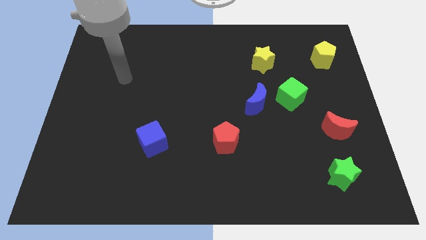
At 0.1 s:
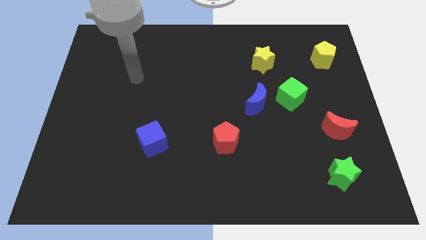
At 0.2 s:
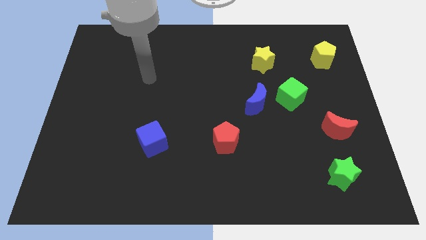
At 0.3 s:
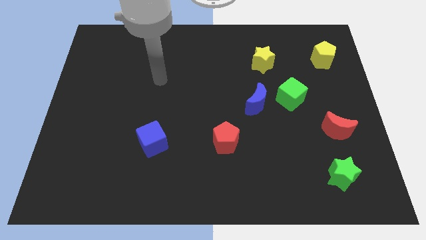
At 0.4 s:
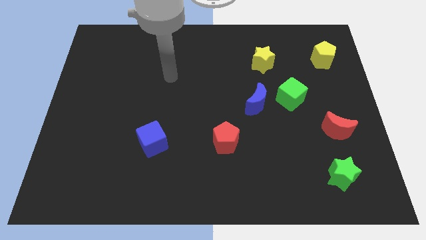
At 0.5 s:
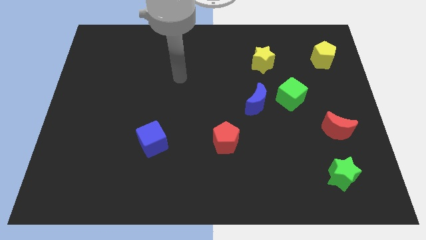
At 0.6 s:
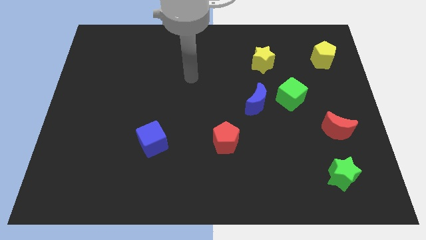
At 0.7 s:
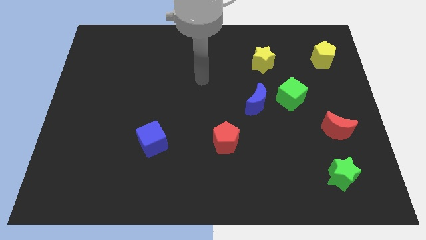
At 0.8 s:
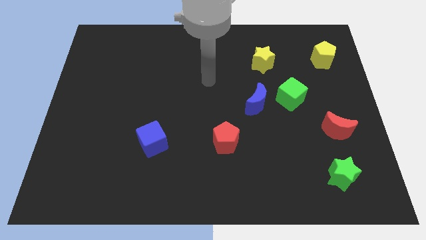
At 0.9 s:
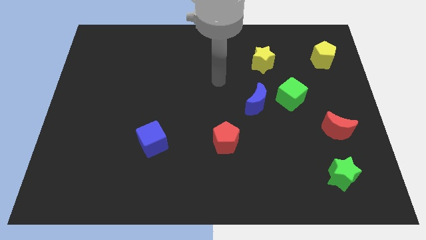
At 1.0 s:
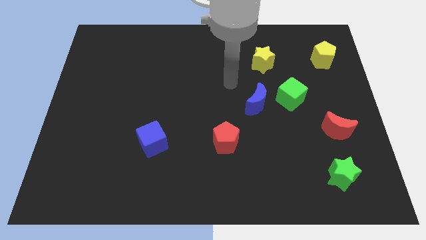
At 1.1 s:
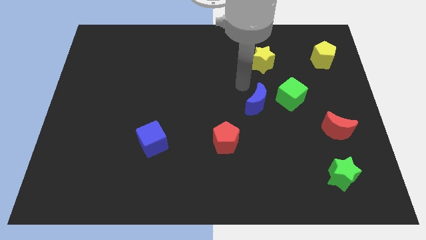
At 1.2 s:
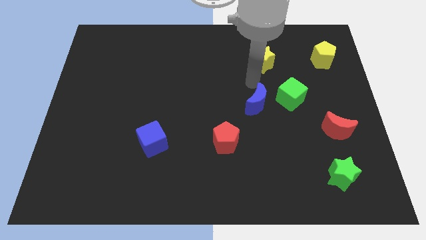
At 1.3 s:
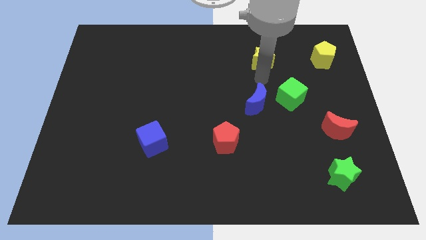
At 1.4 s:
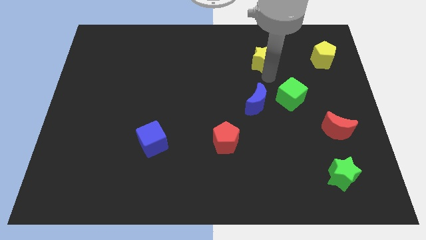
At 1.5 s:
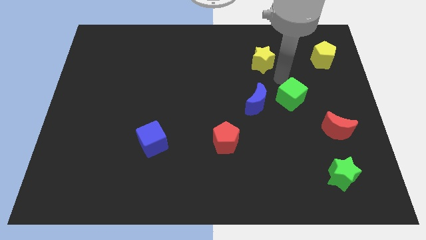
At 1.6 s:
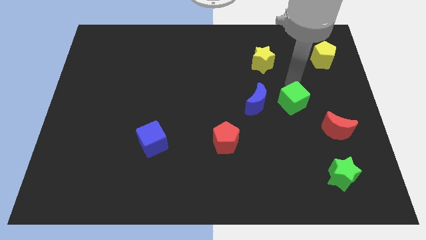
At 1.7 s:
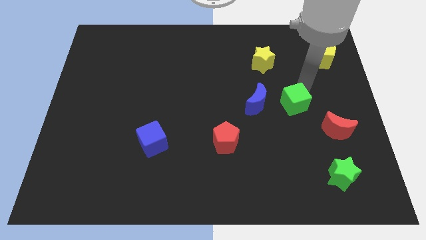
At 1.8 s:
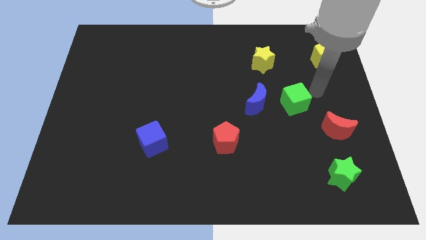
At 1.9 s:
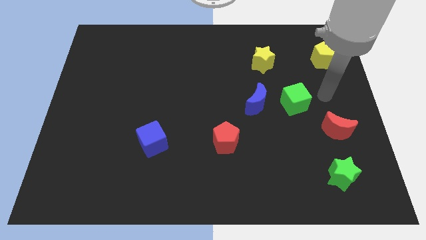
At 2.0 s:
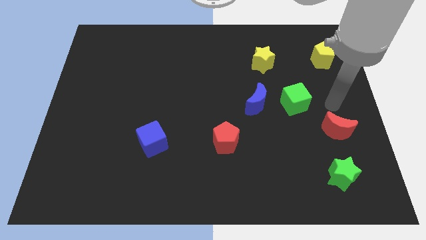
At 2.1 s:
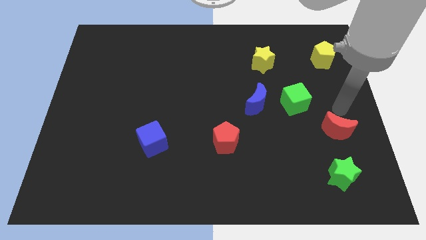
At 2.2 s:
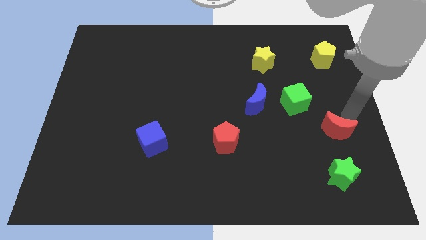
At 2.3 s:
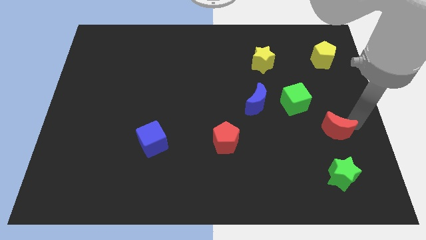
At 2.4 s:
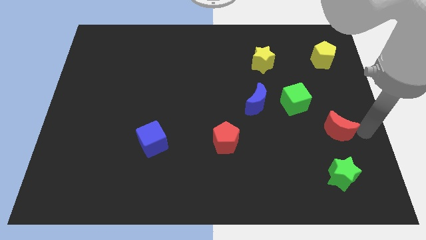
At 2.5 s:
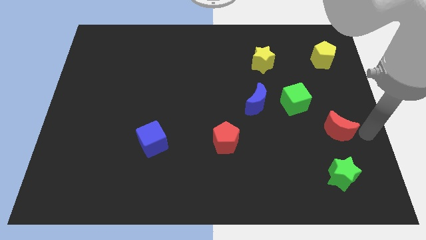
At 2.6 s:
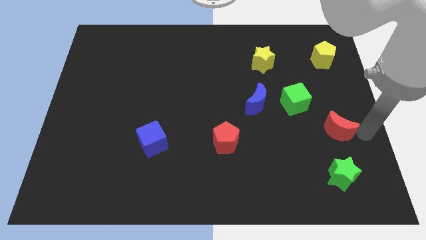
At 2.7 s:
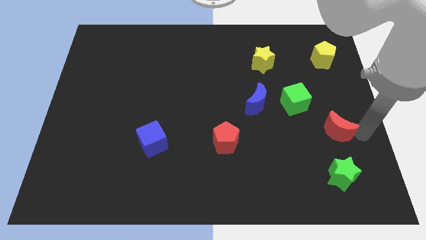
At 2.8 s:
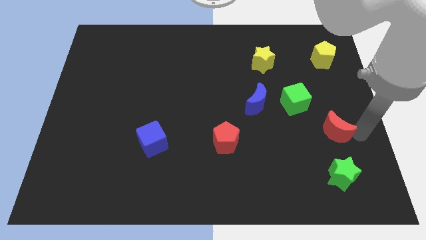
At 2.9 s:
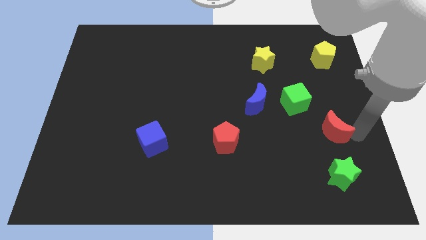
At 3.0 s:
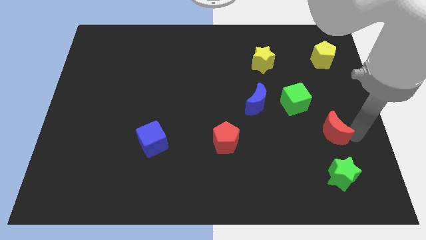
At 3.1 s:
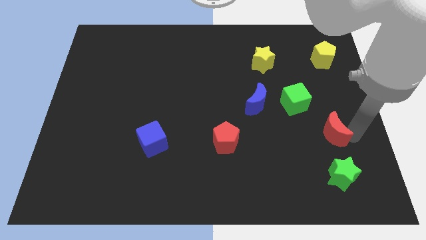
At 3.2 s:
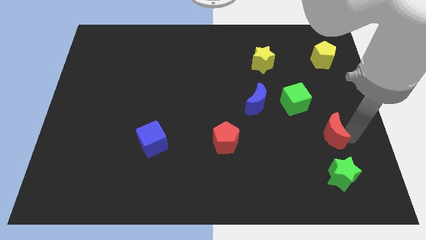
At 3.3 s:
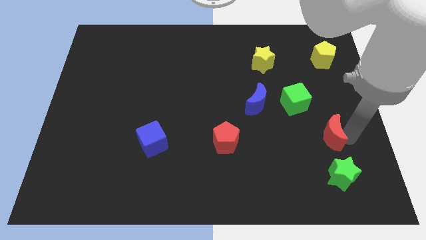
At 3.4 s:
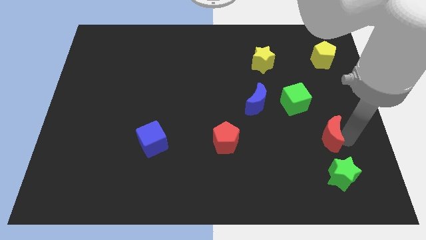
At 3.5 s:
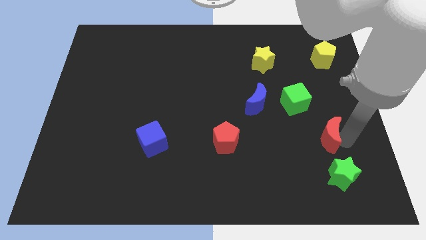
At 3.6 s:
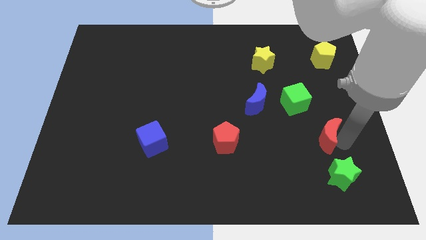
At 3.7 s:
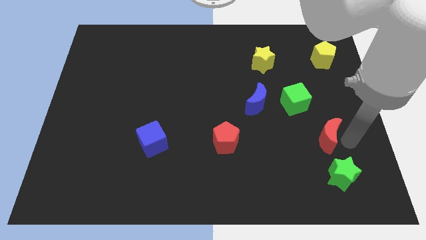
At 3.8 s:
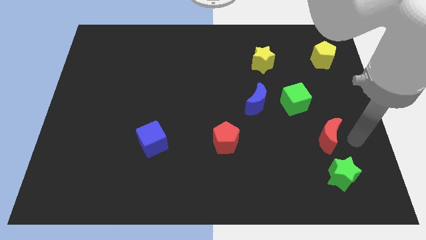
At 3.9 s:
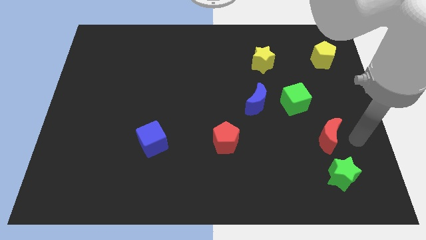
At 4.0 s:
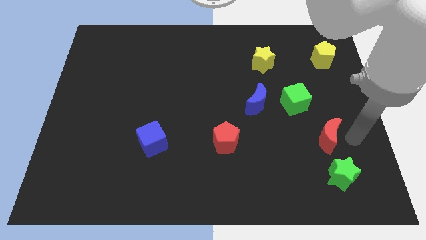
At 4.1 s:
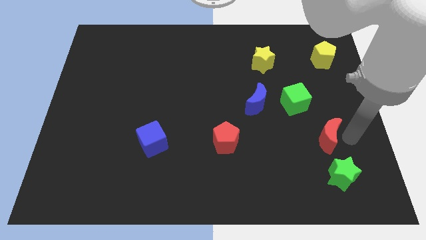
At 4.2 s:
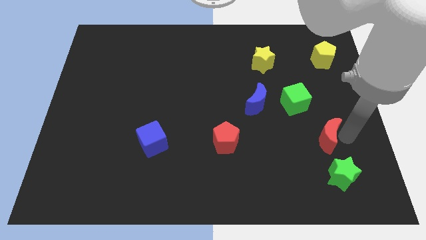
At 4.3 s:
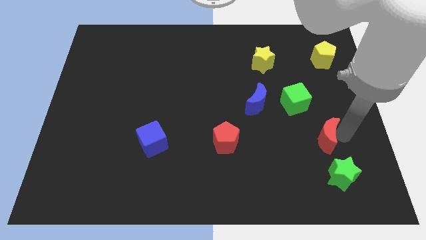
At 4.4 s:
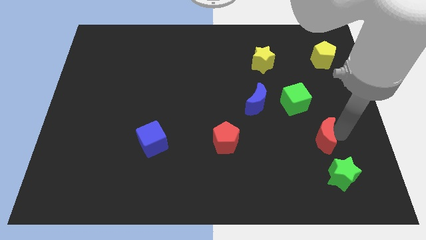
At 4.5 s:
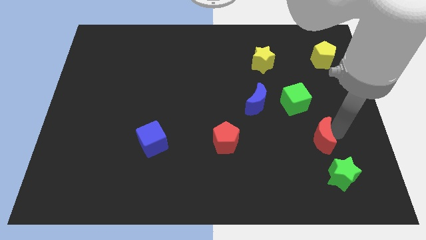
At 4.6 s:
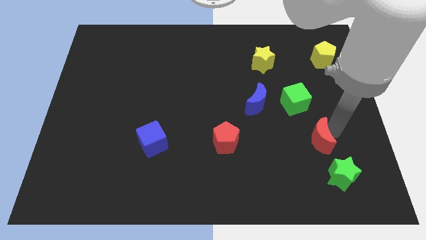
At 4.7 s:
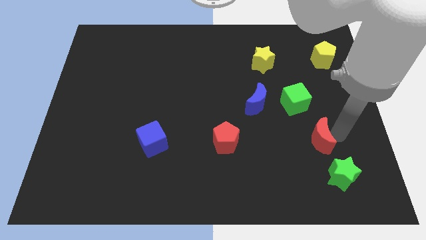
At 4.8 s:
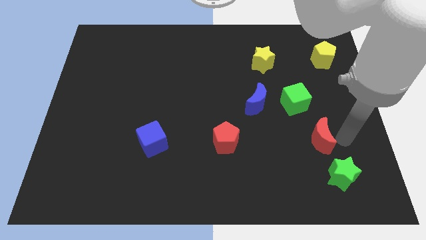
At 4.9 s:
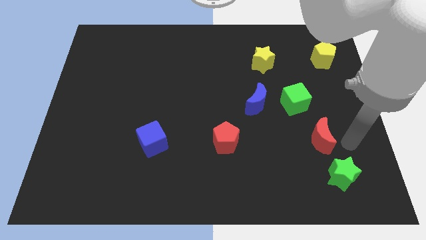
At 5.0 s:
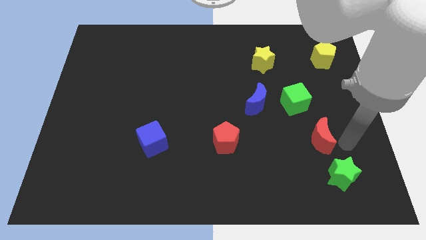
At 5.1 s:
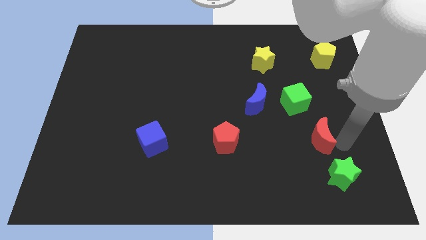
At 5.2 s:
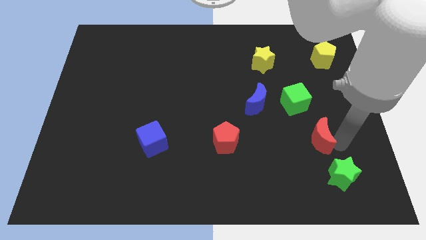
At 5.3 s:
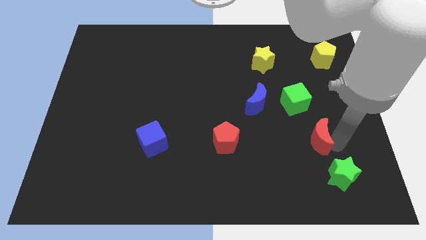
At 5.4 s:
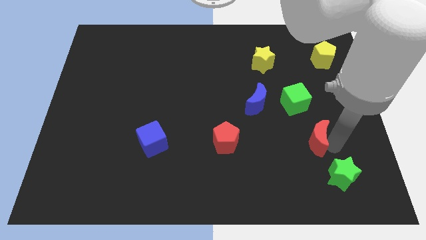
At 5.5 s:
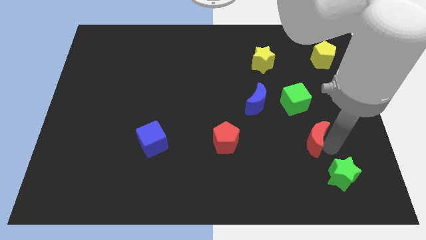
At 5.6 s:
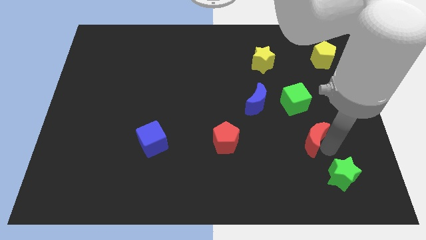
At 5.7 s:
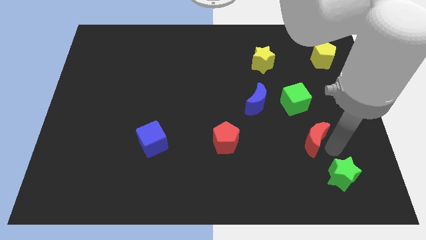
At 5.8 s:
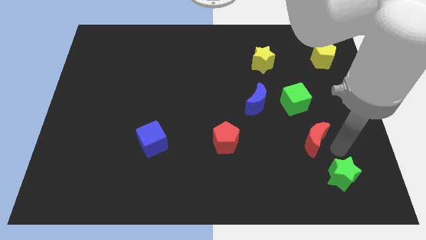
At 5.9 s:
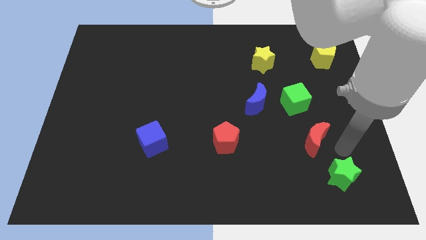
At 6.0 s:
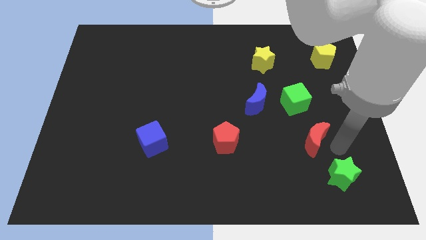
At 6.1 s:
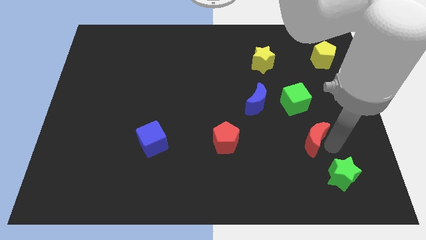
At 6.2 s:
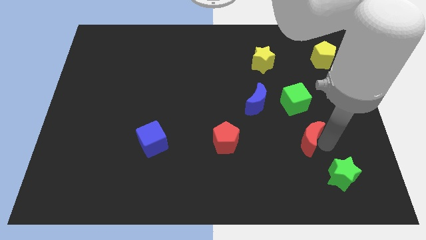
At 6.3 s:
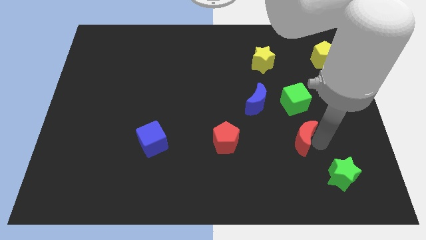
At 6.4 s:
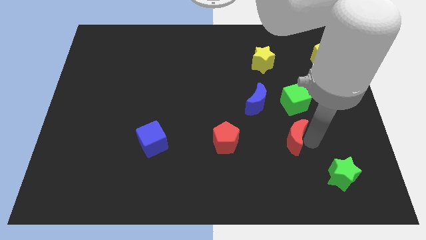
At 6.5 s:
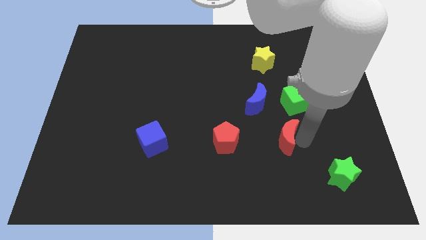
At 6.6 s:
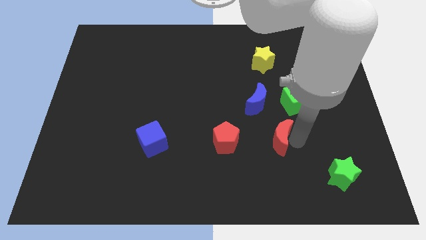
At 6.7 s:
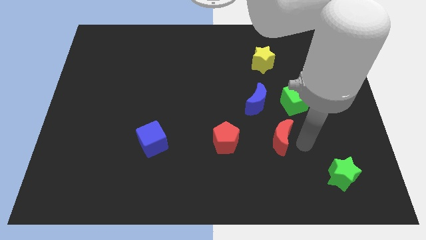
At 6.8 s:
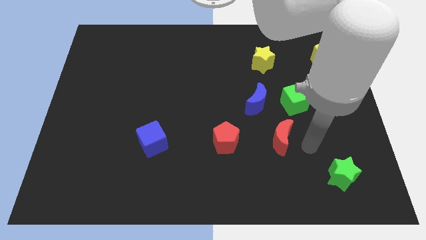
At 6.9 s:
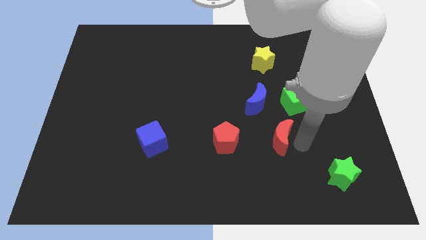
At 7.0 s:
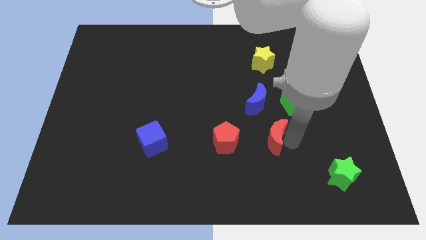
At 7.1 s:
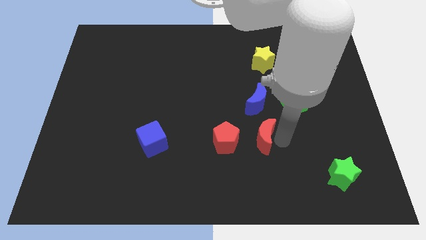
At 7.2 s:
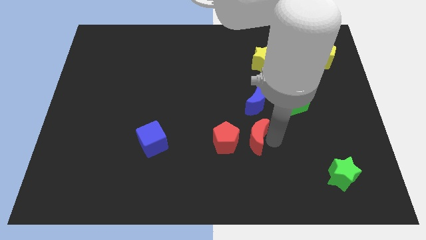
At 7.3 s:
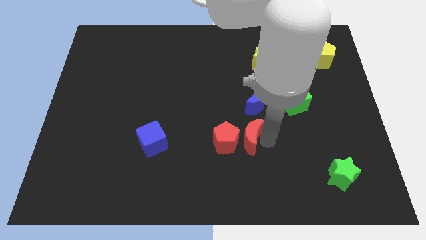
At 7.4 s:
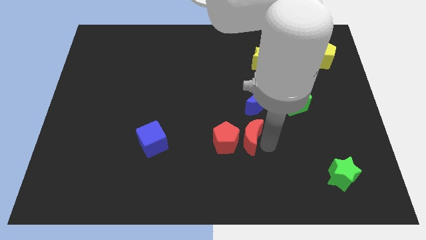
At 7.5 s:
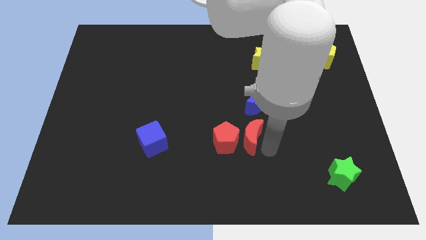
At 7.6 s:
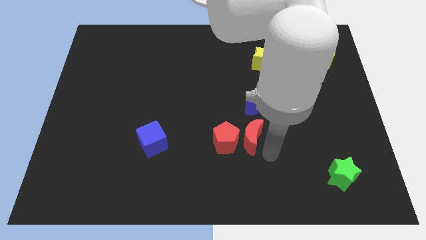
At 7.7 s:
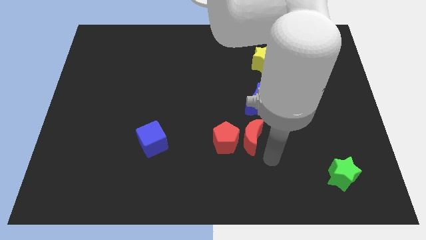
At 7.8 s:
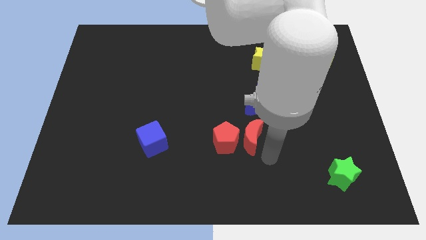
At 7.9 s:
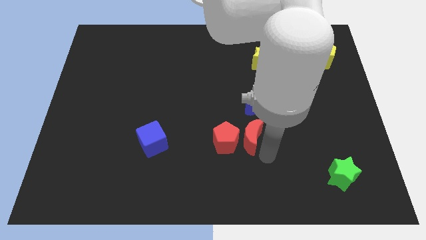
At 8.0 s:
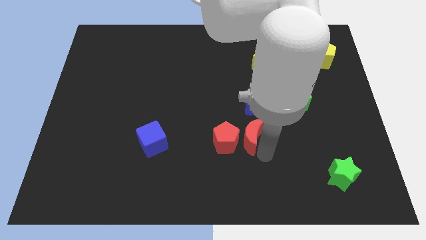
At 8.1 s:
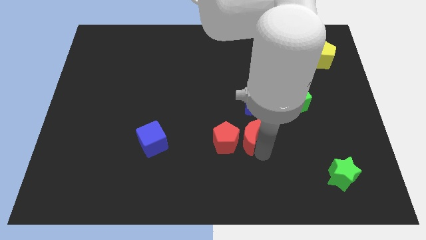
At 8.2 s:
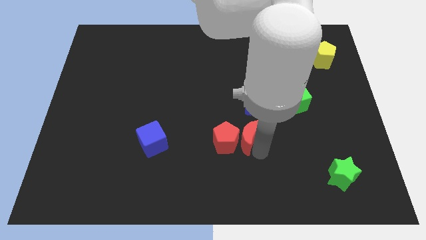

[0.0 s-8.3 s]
slide the red moon left
